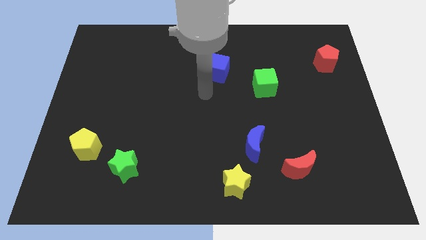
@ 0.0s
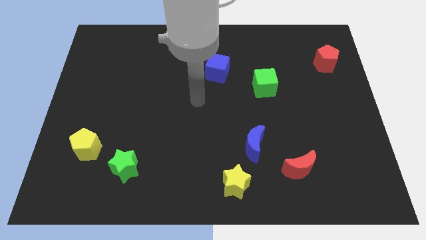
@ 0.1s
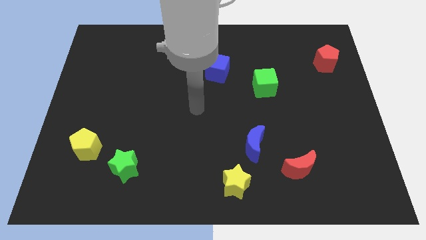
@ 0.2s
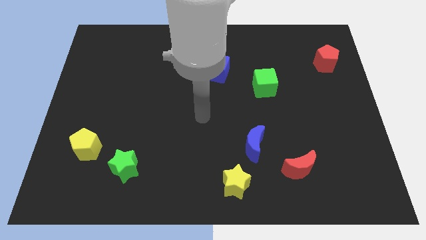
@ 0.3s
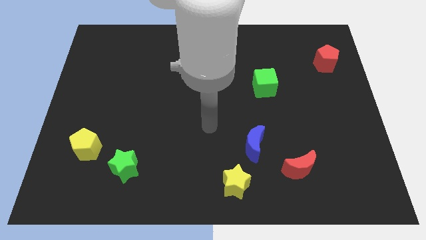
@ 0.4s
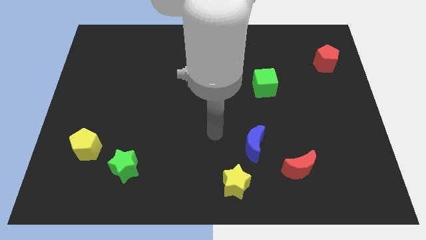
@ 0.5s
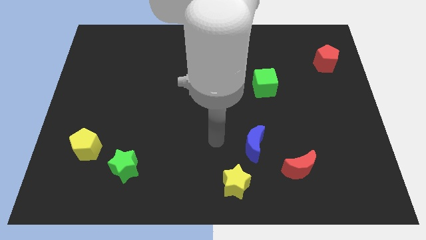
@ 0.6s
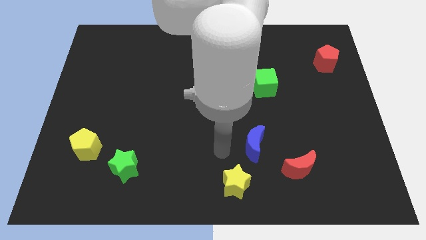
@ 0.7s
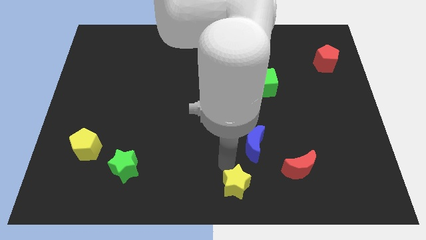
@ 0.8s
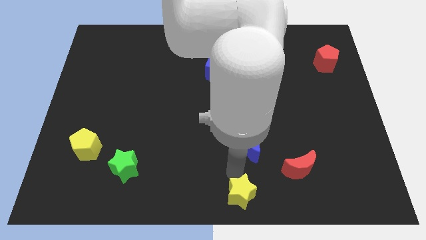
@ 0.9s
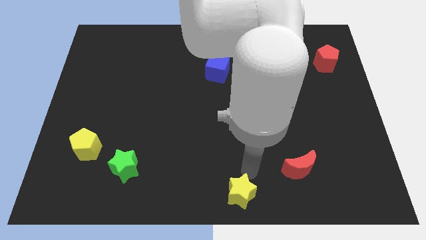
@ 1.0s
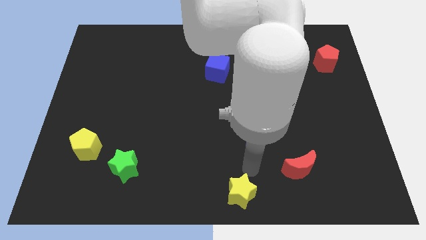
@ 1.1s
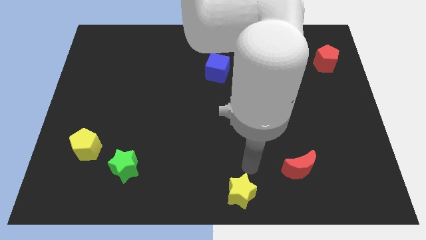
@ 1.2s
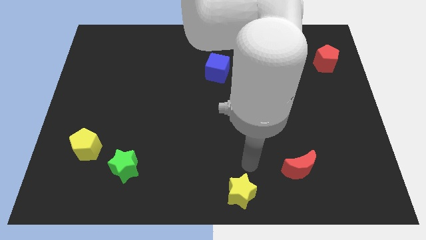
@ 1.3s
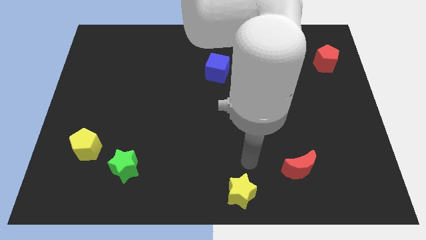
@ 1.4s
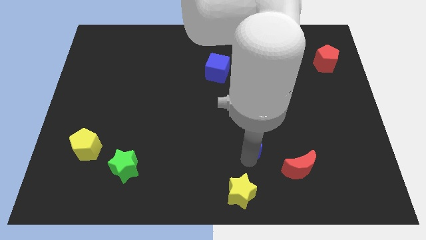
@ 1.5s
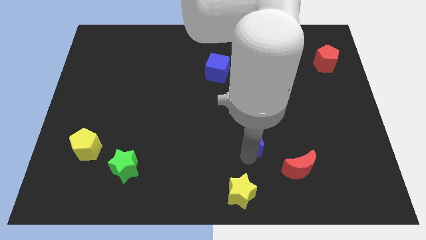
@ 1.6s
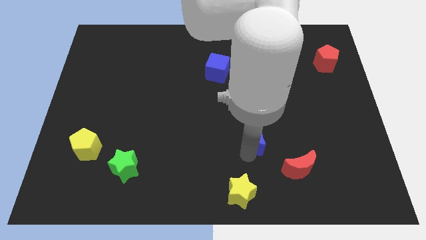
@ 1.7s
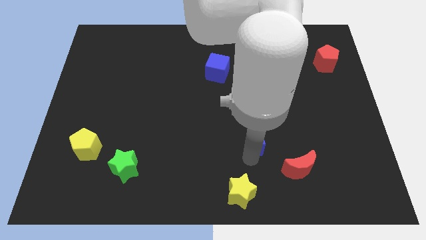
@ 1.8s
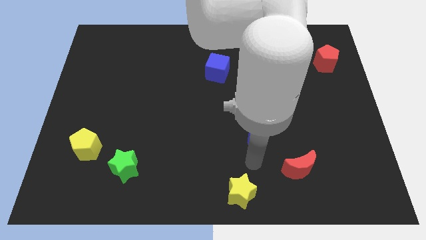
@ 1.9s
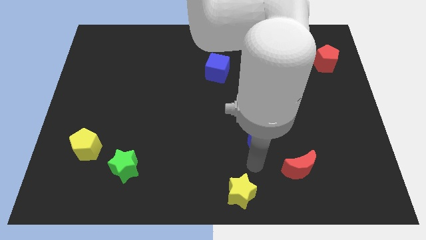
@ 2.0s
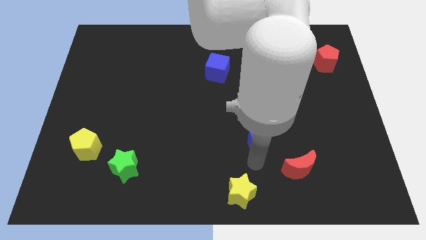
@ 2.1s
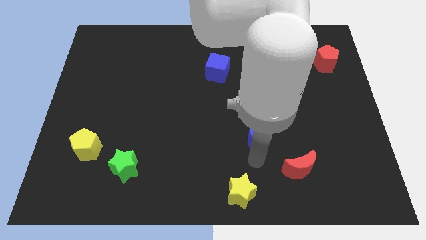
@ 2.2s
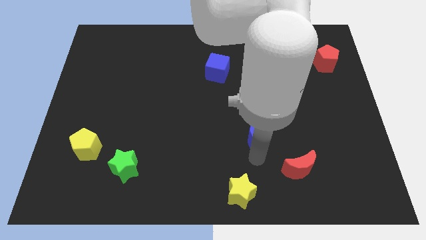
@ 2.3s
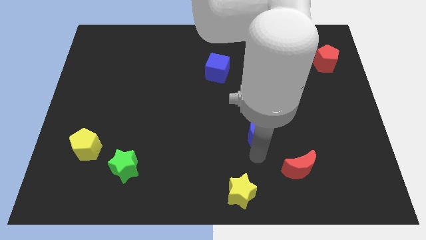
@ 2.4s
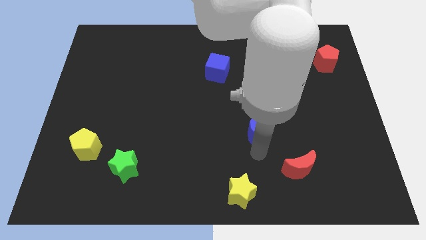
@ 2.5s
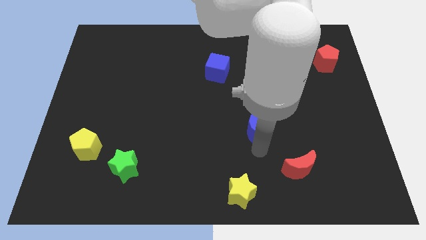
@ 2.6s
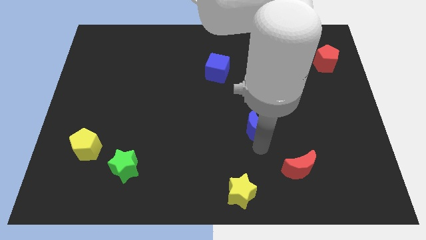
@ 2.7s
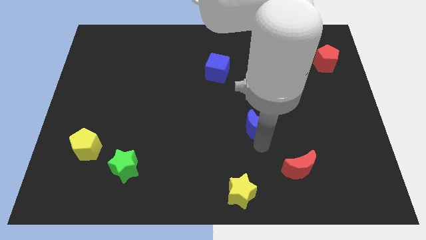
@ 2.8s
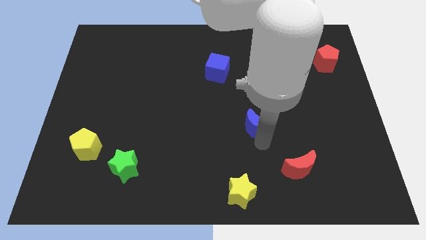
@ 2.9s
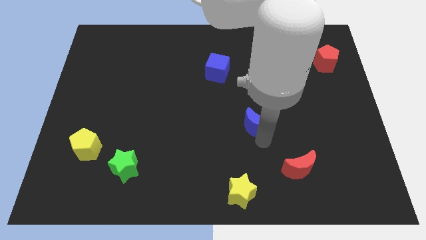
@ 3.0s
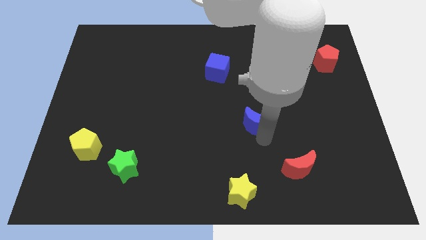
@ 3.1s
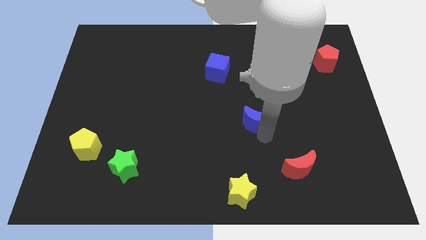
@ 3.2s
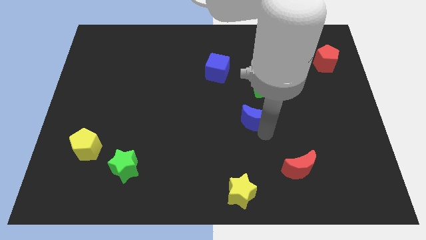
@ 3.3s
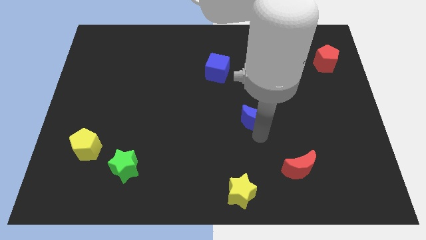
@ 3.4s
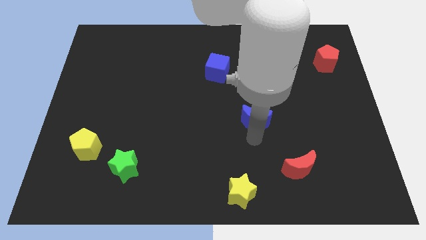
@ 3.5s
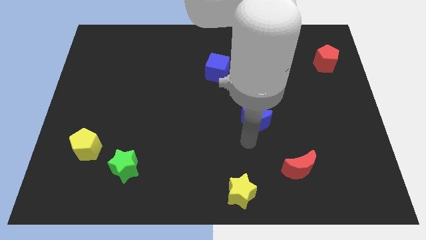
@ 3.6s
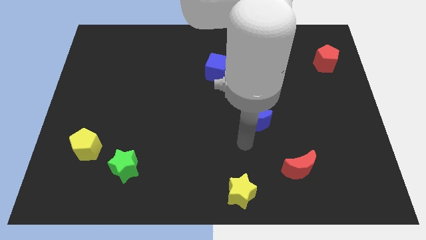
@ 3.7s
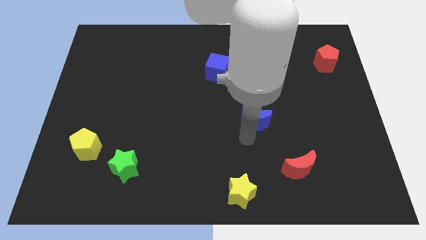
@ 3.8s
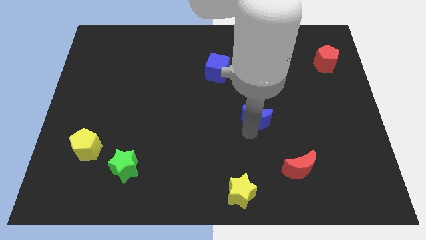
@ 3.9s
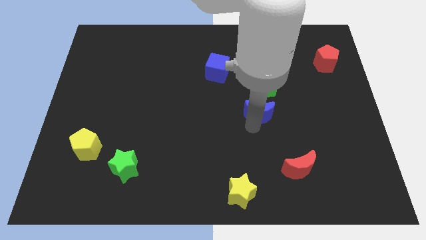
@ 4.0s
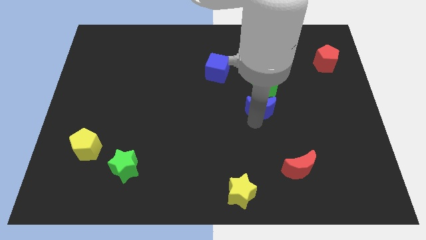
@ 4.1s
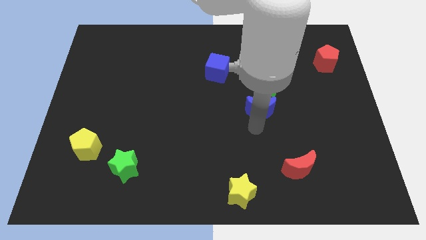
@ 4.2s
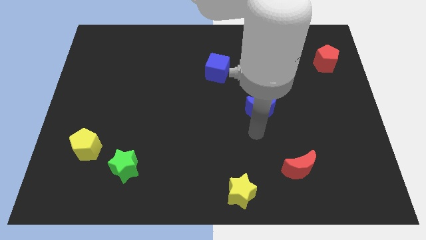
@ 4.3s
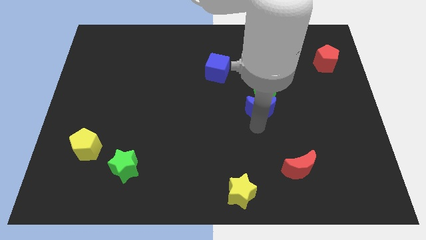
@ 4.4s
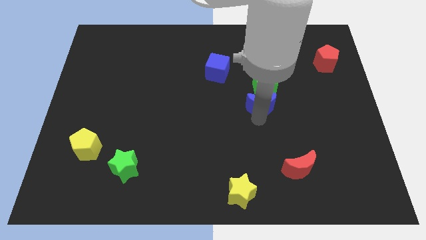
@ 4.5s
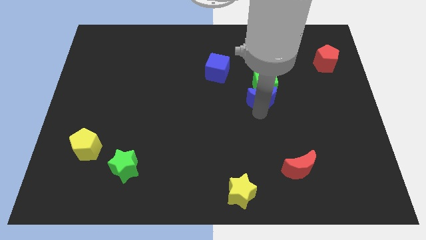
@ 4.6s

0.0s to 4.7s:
move the blue moon towards the green cube

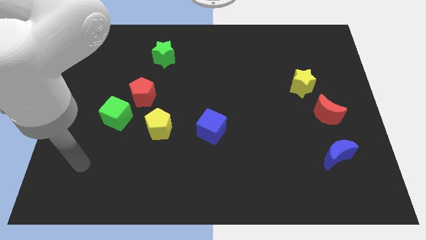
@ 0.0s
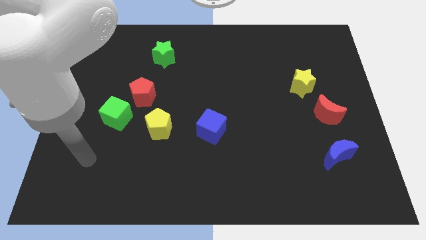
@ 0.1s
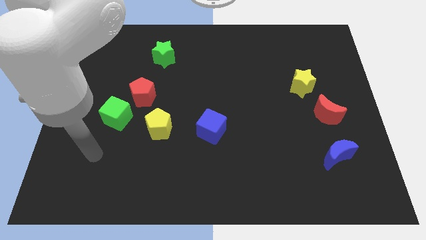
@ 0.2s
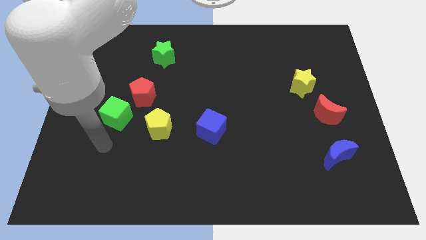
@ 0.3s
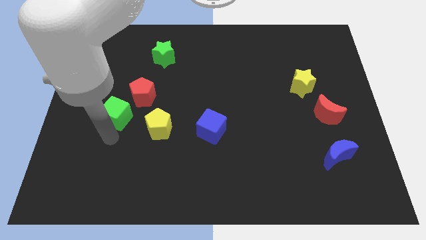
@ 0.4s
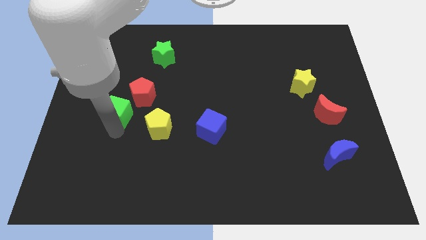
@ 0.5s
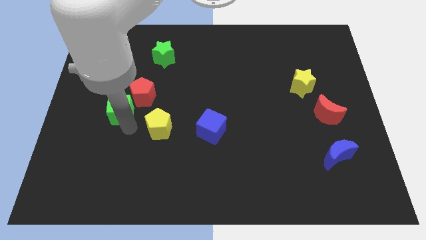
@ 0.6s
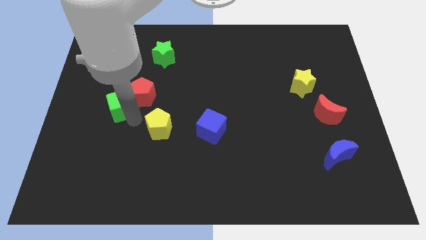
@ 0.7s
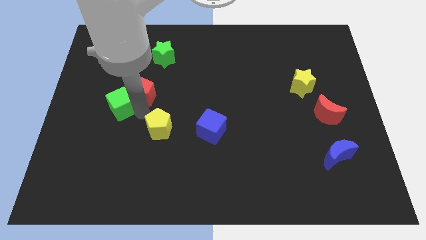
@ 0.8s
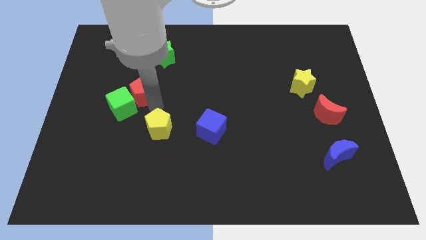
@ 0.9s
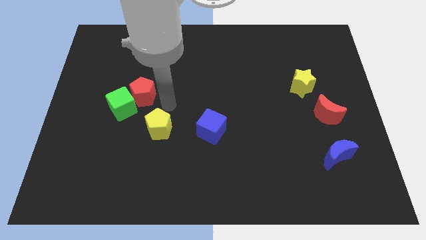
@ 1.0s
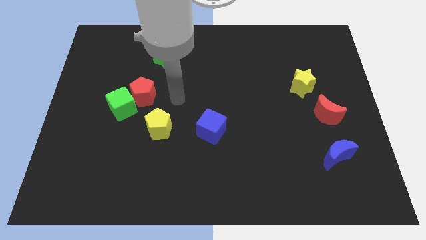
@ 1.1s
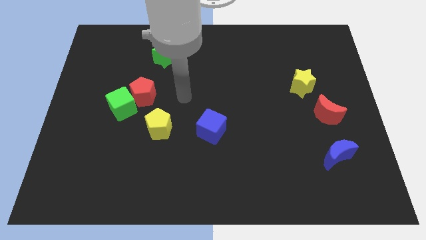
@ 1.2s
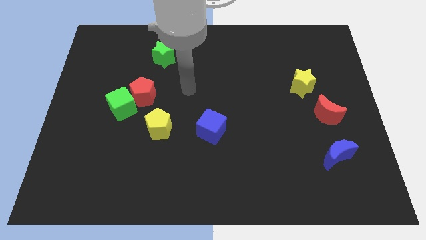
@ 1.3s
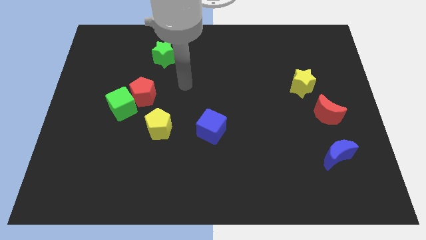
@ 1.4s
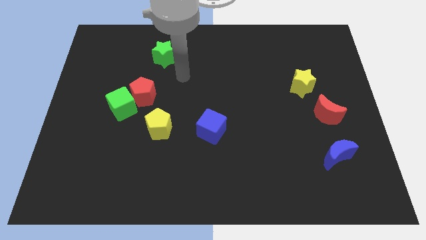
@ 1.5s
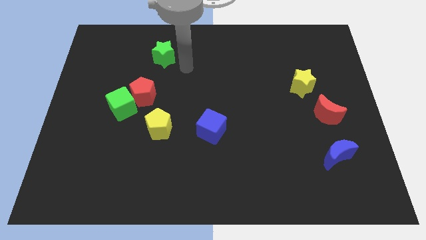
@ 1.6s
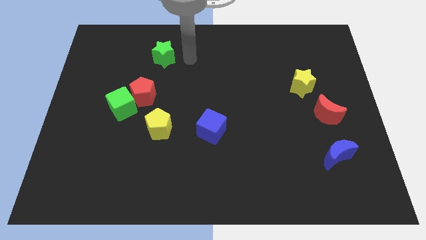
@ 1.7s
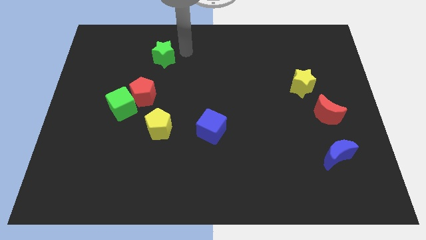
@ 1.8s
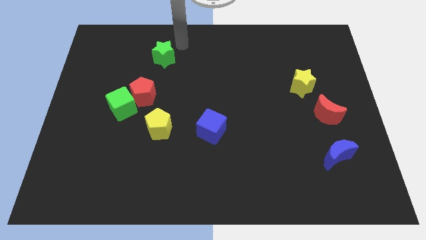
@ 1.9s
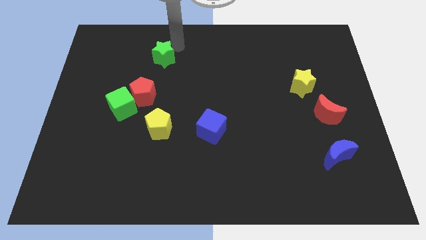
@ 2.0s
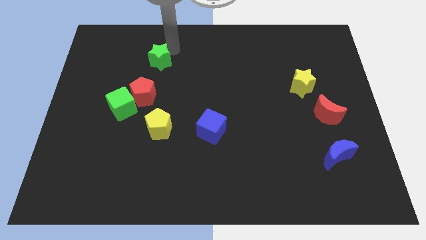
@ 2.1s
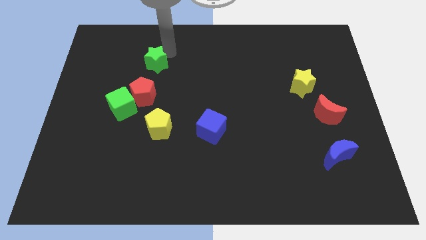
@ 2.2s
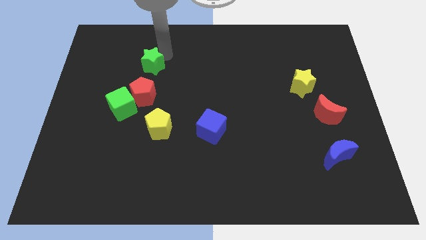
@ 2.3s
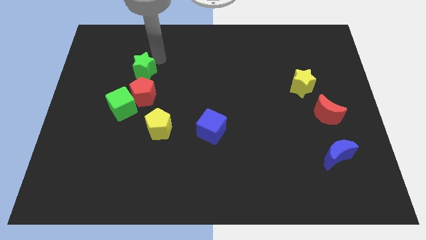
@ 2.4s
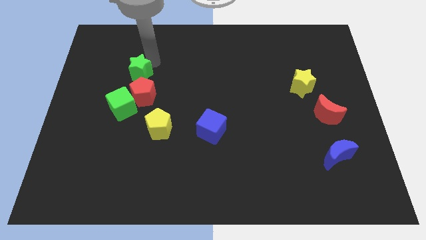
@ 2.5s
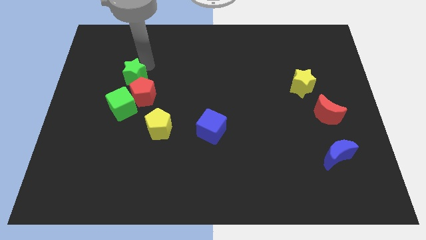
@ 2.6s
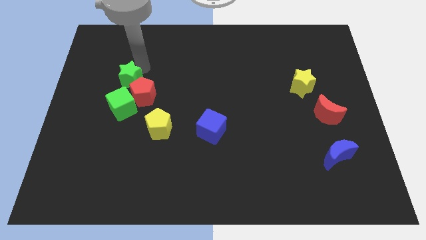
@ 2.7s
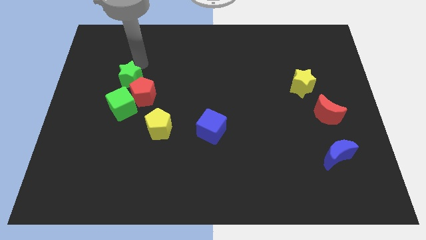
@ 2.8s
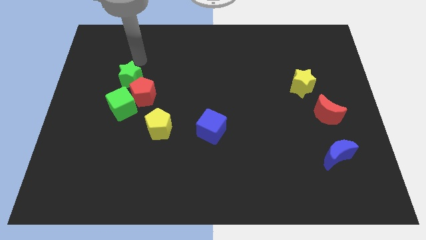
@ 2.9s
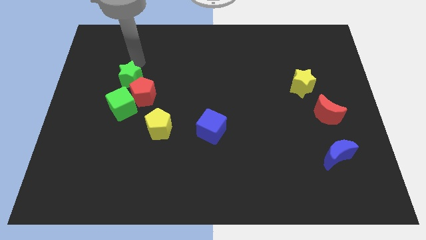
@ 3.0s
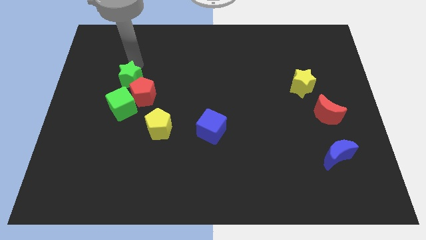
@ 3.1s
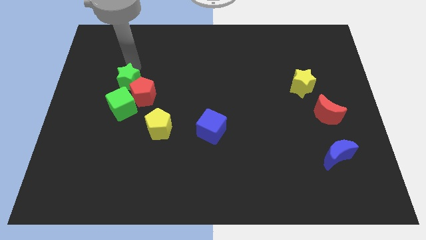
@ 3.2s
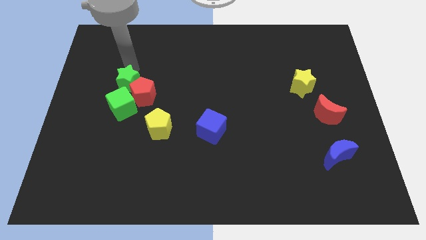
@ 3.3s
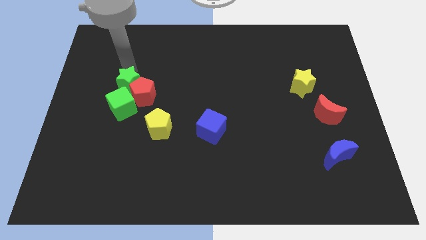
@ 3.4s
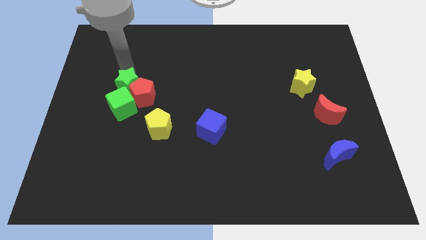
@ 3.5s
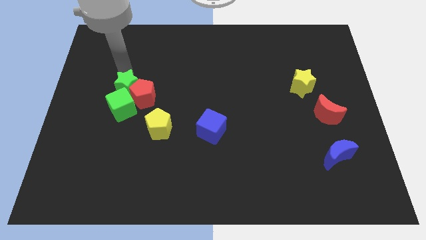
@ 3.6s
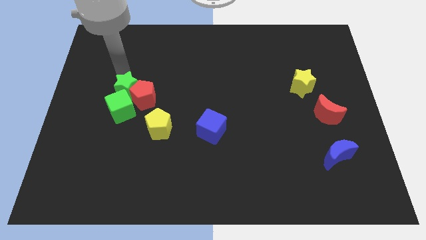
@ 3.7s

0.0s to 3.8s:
move the green star next to the green cube
